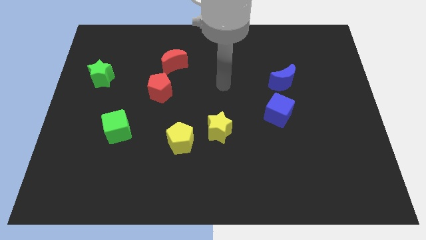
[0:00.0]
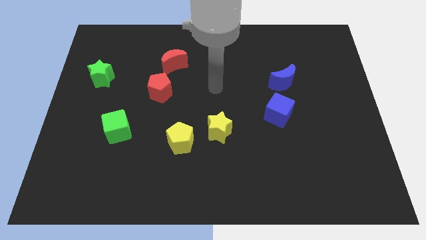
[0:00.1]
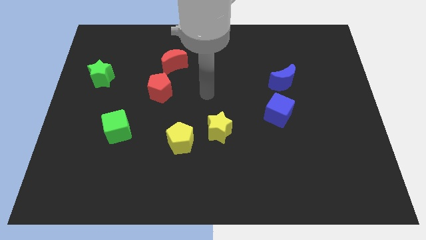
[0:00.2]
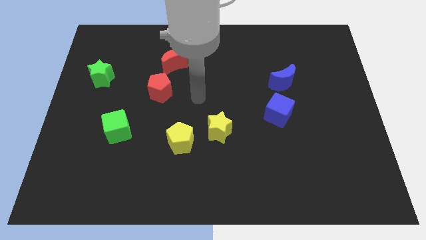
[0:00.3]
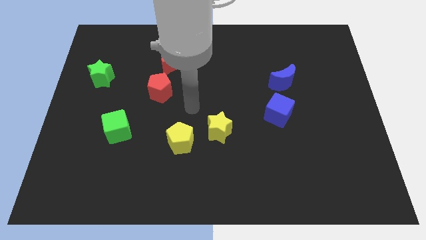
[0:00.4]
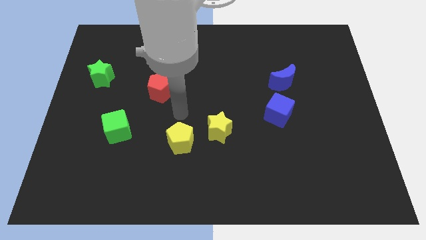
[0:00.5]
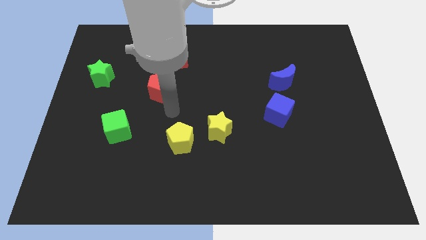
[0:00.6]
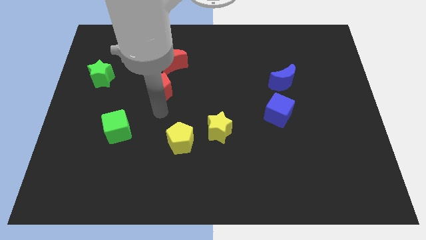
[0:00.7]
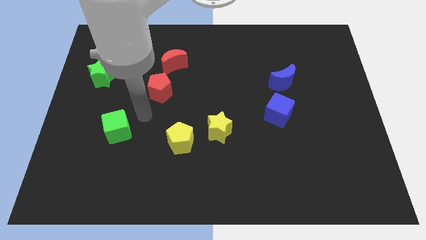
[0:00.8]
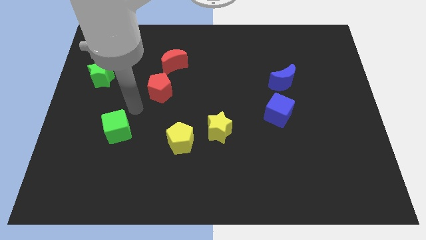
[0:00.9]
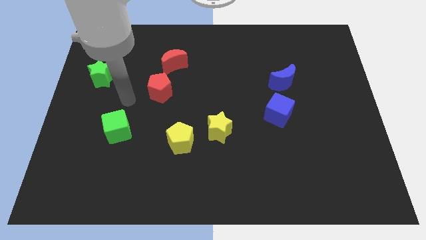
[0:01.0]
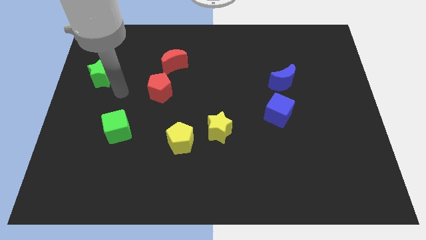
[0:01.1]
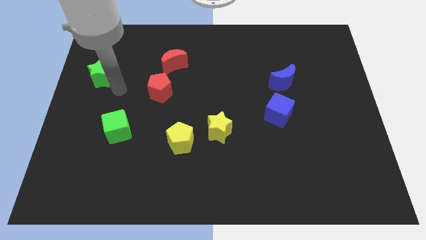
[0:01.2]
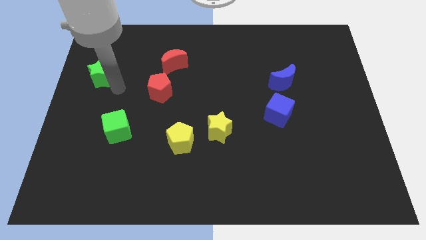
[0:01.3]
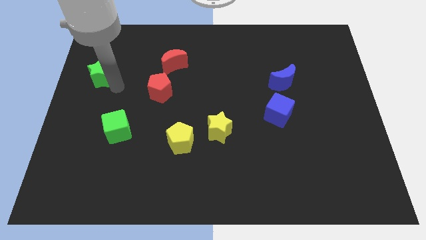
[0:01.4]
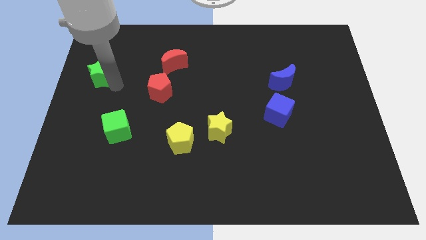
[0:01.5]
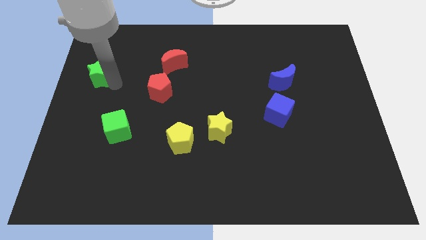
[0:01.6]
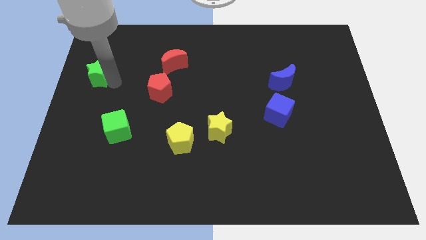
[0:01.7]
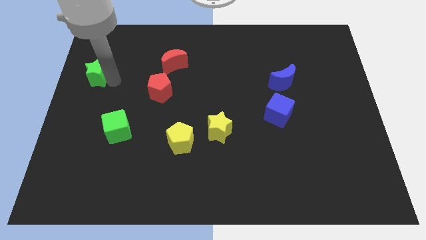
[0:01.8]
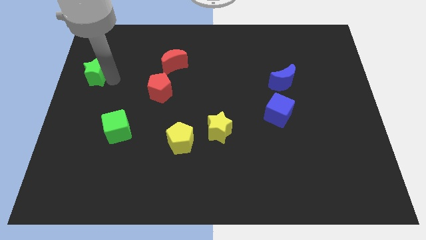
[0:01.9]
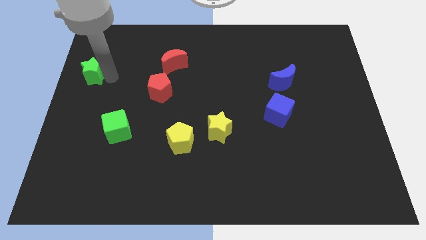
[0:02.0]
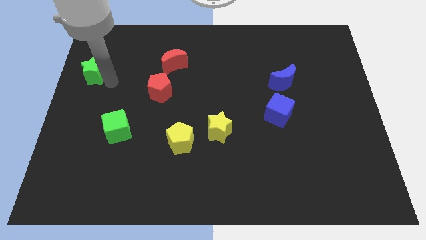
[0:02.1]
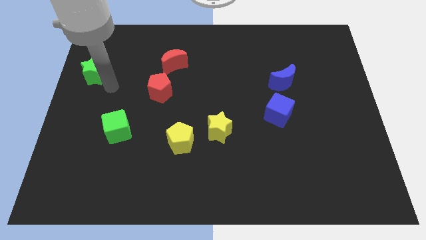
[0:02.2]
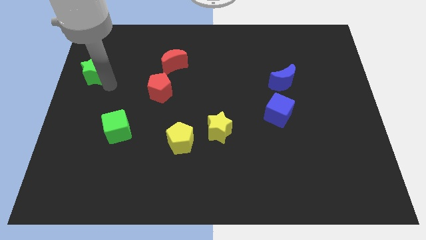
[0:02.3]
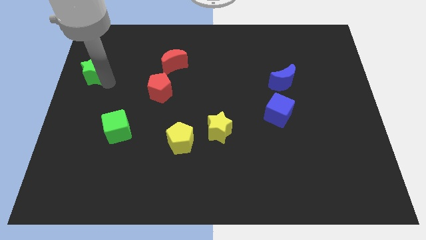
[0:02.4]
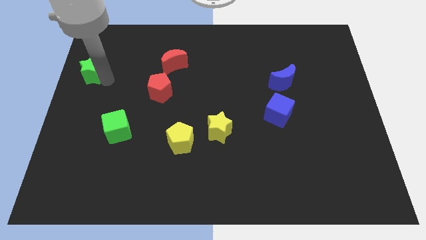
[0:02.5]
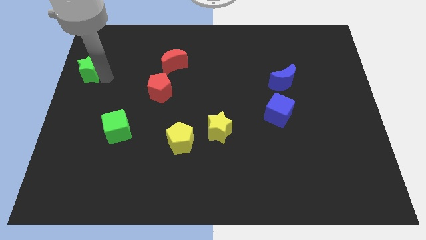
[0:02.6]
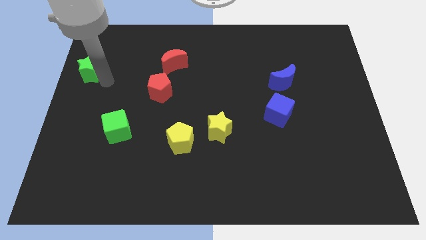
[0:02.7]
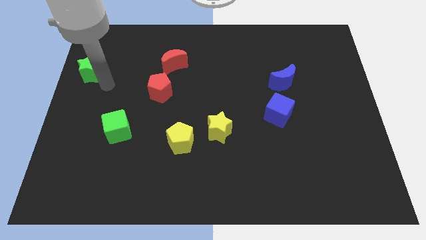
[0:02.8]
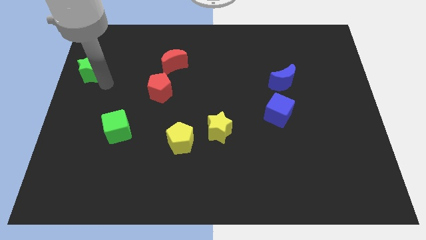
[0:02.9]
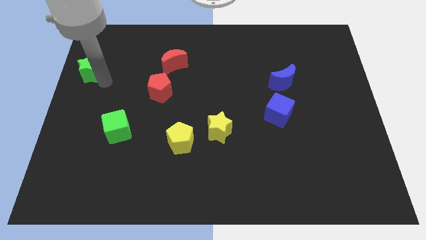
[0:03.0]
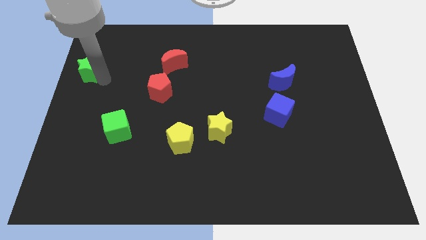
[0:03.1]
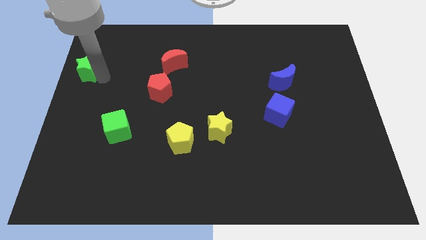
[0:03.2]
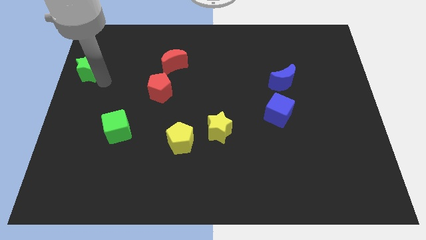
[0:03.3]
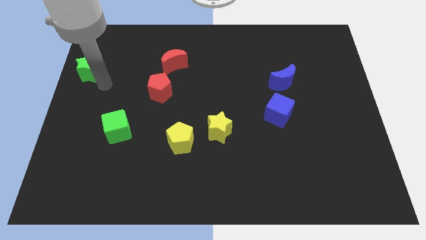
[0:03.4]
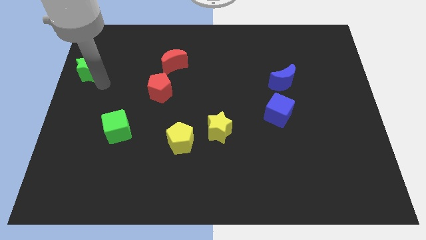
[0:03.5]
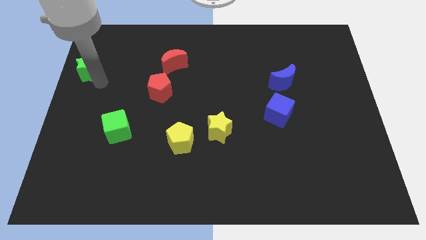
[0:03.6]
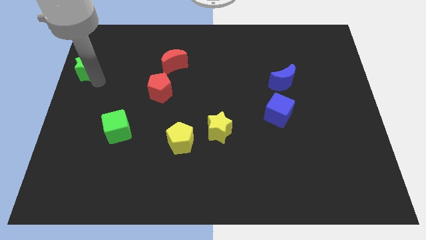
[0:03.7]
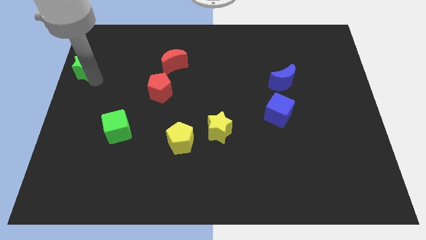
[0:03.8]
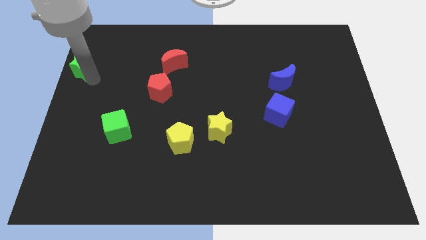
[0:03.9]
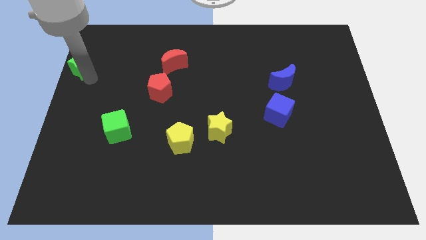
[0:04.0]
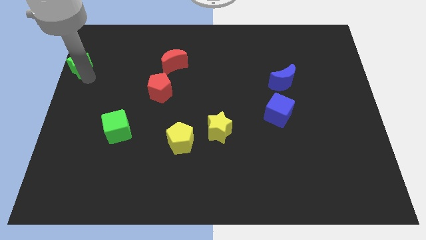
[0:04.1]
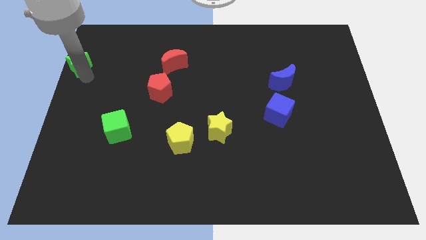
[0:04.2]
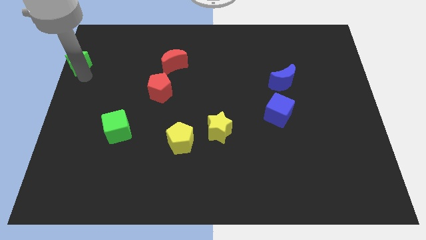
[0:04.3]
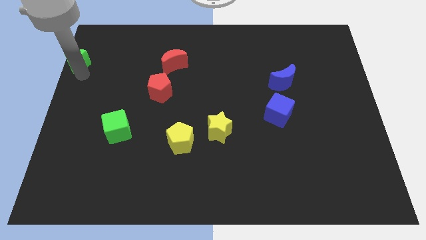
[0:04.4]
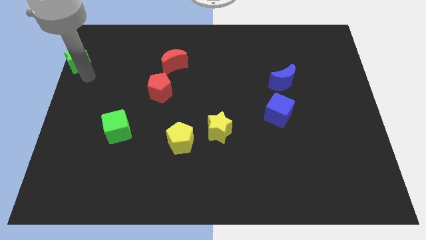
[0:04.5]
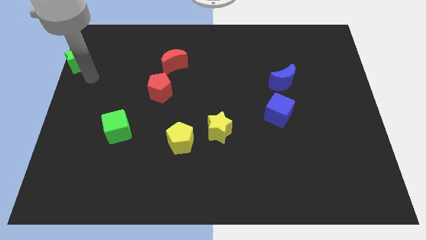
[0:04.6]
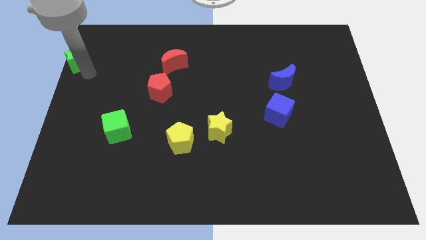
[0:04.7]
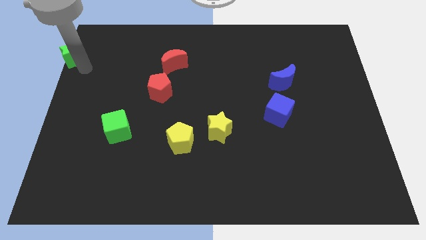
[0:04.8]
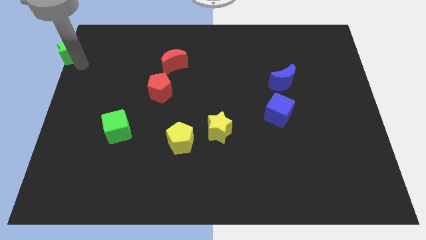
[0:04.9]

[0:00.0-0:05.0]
push the green star to the top left corner

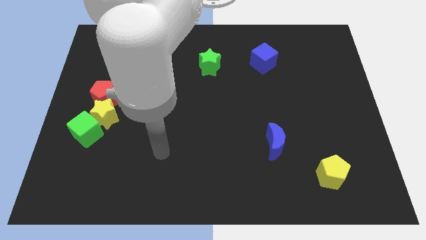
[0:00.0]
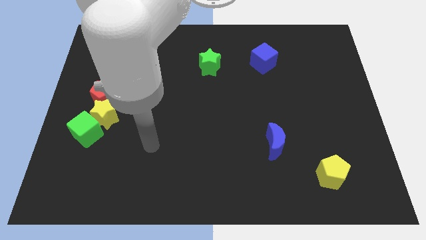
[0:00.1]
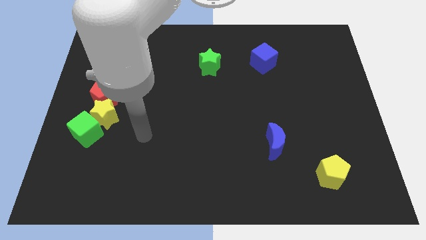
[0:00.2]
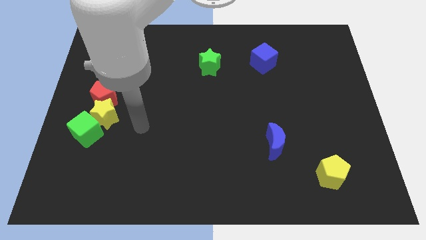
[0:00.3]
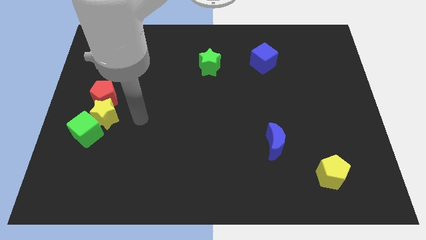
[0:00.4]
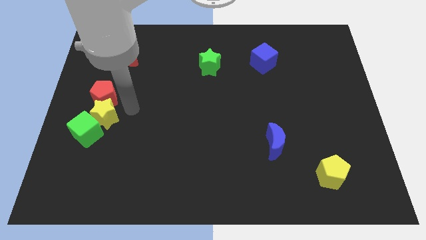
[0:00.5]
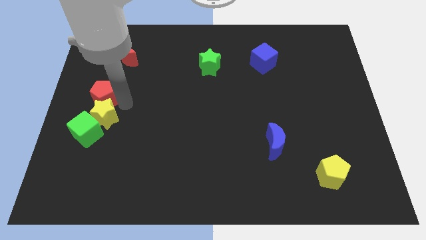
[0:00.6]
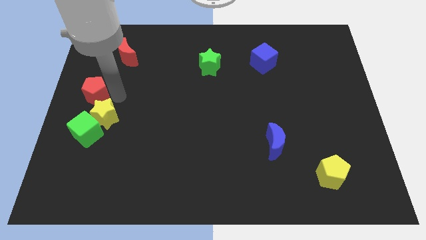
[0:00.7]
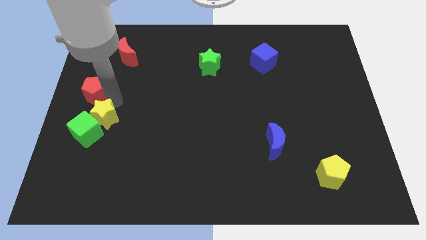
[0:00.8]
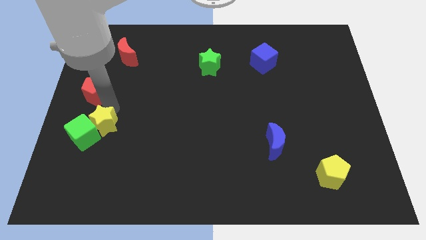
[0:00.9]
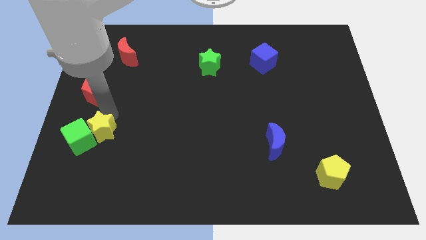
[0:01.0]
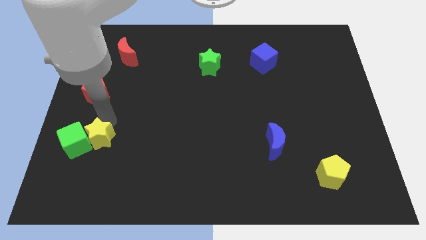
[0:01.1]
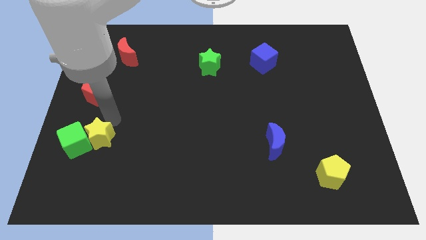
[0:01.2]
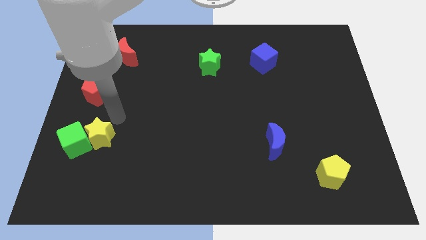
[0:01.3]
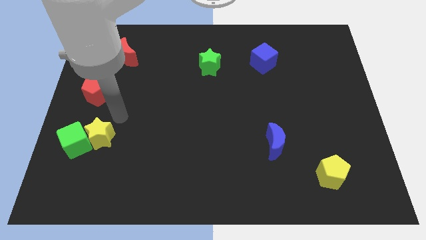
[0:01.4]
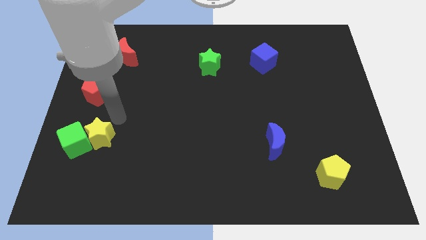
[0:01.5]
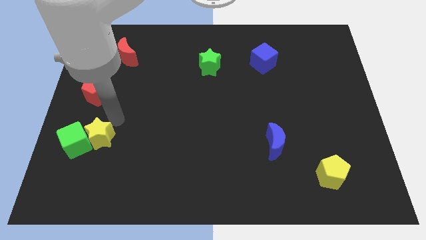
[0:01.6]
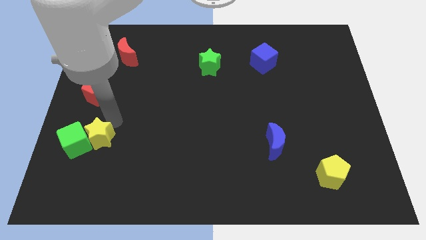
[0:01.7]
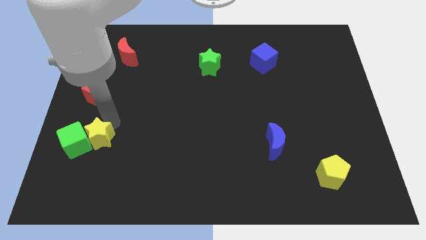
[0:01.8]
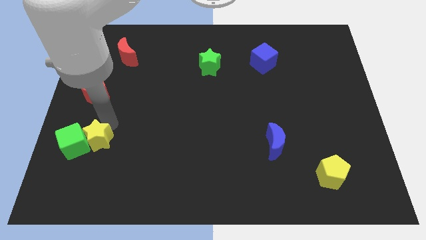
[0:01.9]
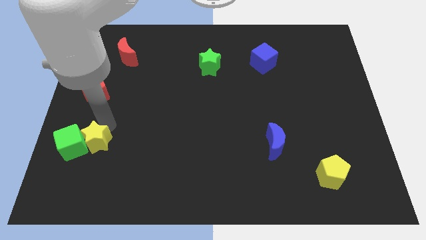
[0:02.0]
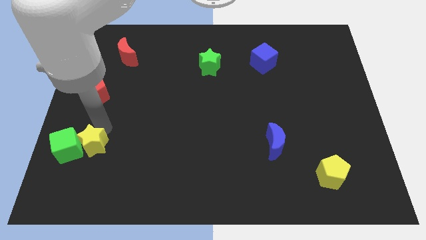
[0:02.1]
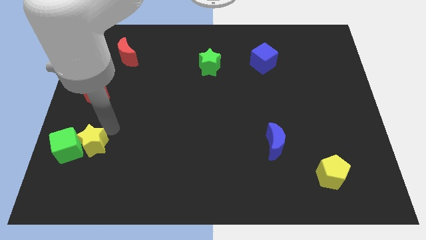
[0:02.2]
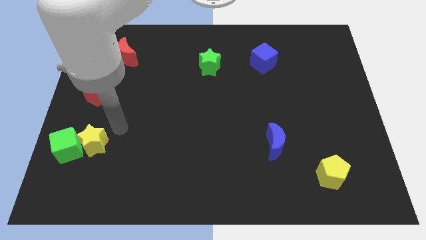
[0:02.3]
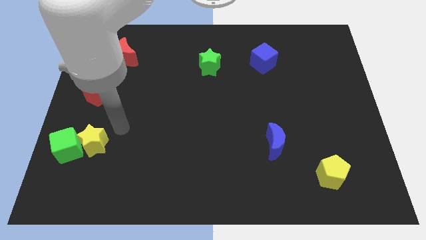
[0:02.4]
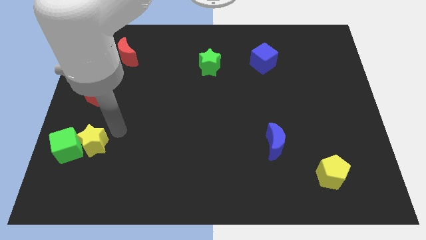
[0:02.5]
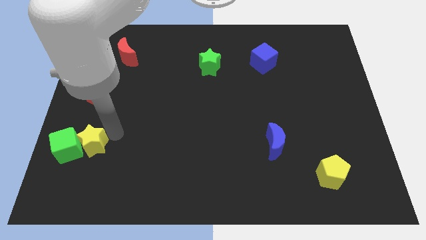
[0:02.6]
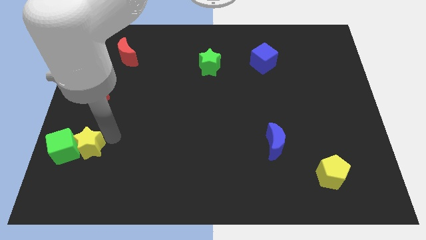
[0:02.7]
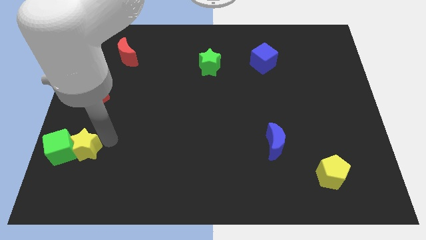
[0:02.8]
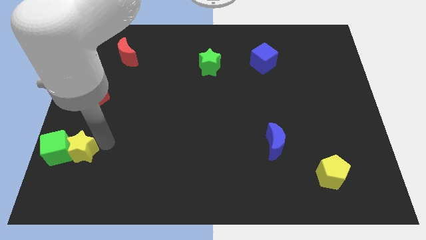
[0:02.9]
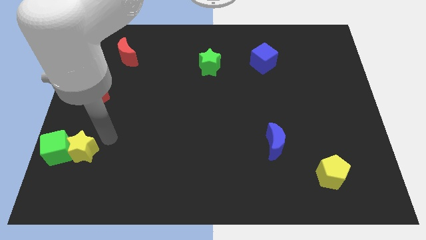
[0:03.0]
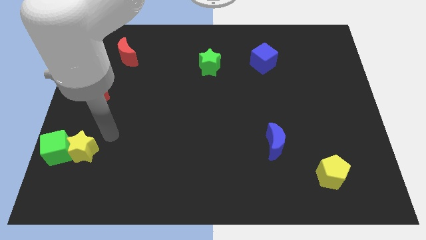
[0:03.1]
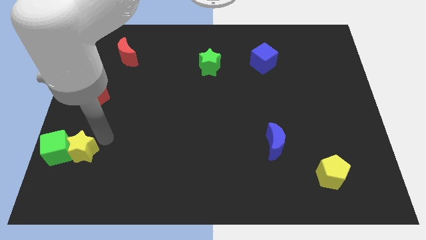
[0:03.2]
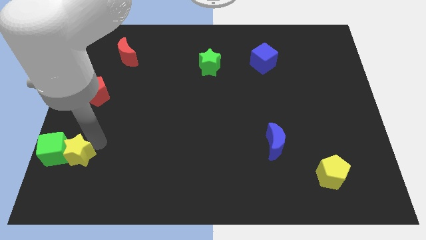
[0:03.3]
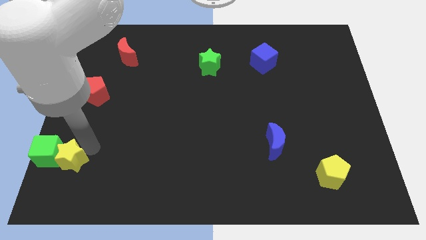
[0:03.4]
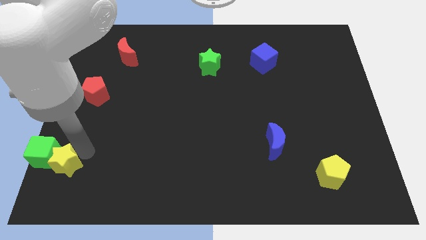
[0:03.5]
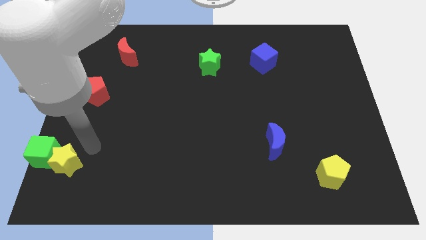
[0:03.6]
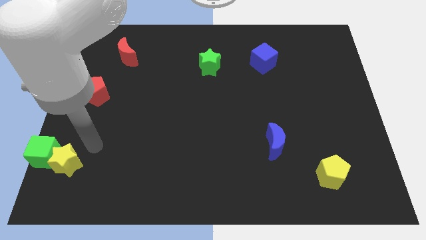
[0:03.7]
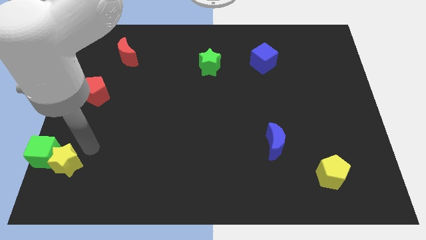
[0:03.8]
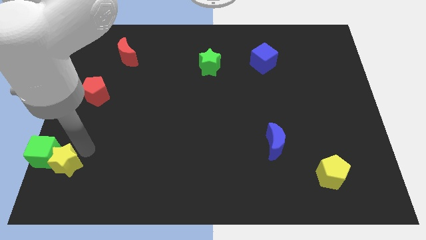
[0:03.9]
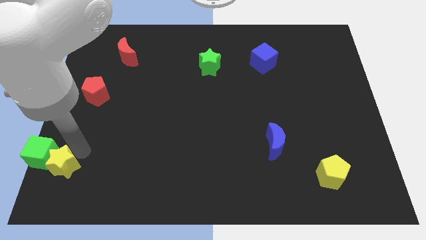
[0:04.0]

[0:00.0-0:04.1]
move the yellow star to the bottom left
